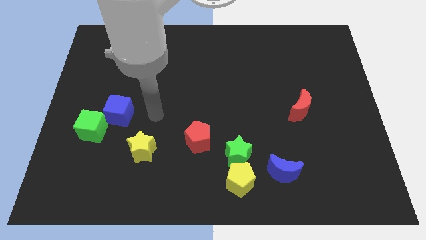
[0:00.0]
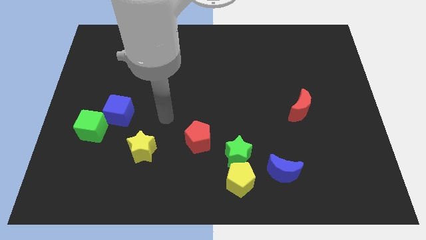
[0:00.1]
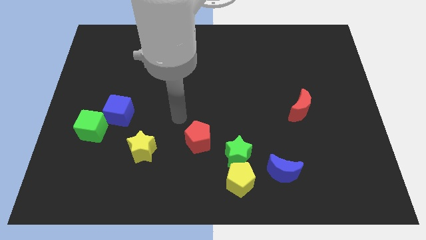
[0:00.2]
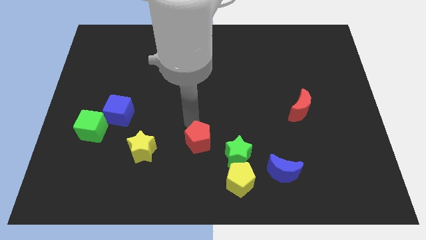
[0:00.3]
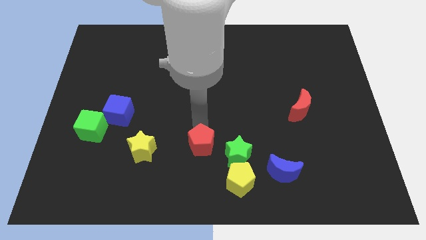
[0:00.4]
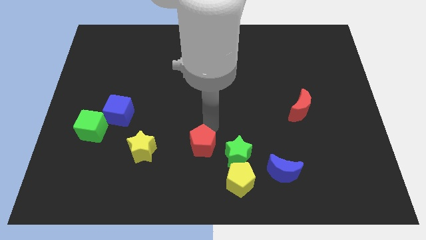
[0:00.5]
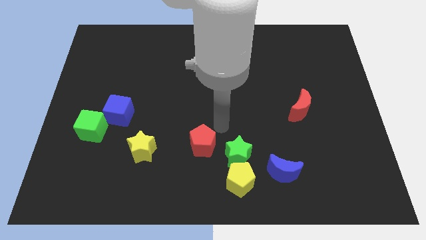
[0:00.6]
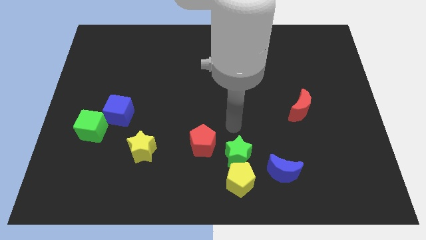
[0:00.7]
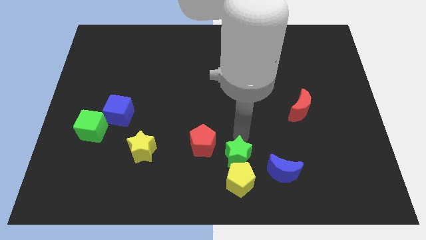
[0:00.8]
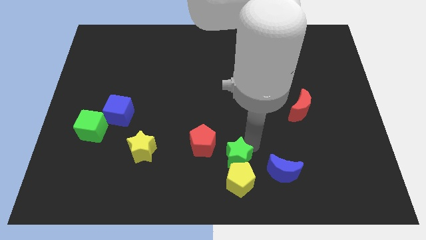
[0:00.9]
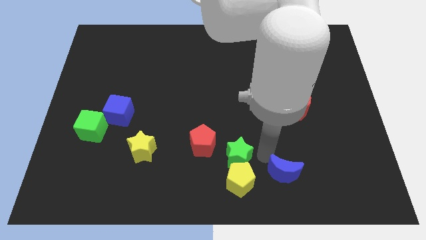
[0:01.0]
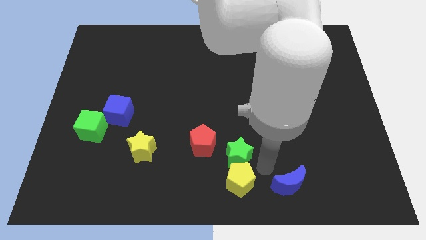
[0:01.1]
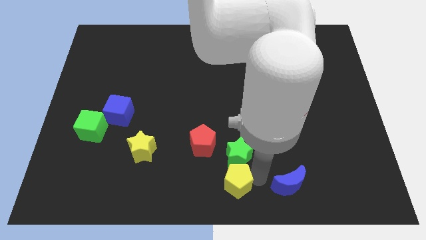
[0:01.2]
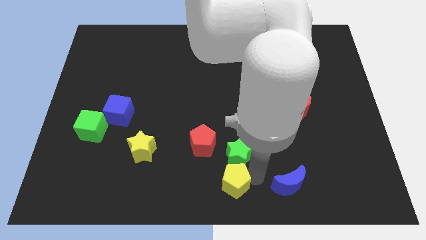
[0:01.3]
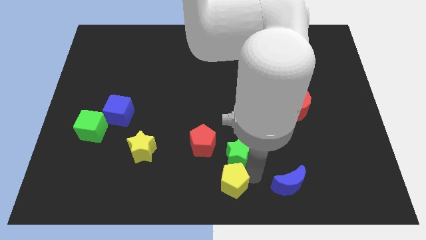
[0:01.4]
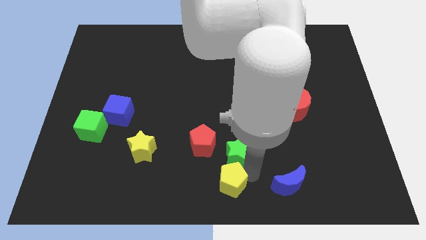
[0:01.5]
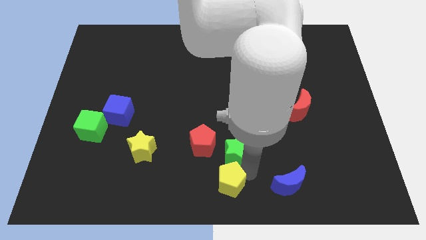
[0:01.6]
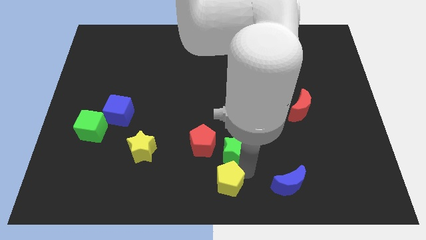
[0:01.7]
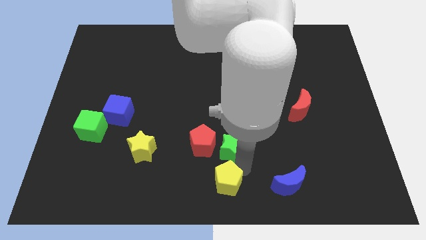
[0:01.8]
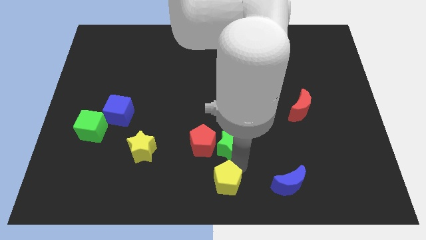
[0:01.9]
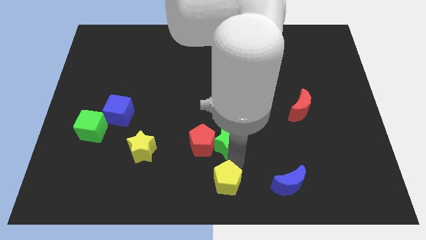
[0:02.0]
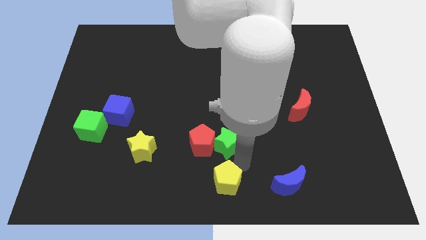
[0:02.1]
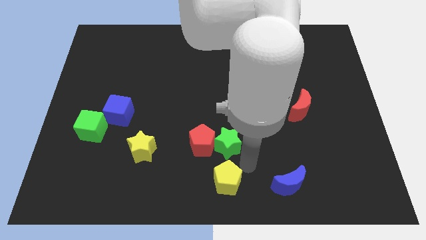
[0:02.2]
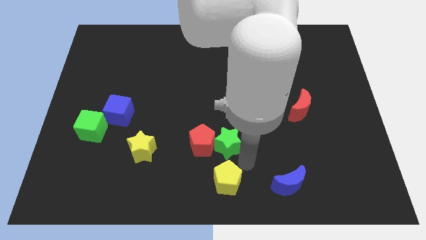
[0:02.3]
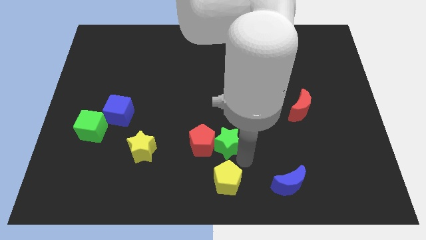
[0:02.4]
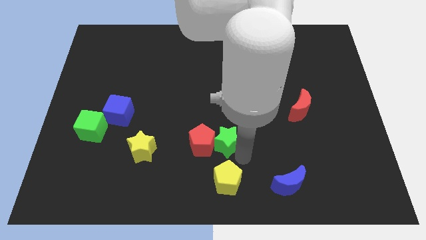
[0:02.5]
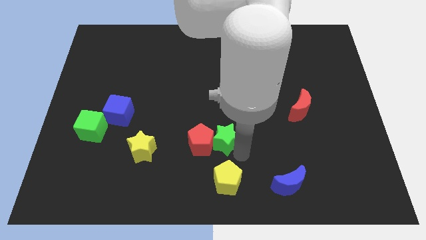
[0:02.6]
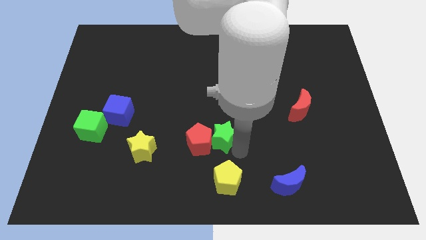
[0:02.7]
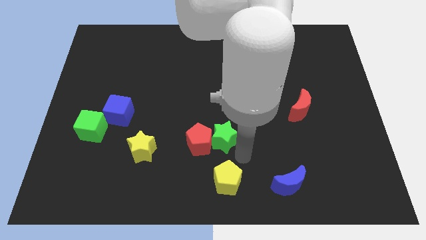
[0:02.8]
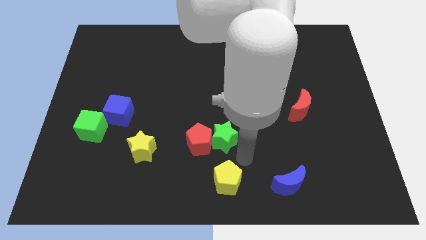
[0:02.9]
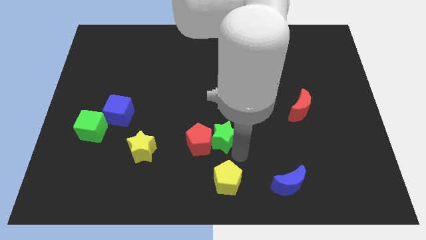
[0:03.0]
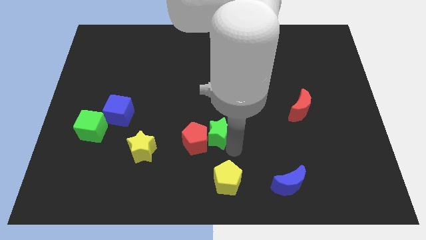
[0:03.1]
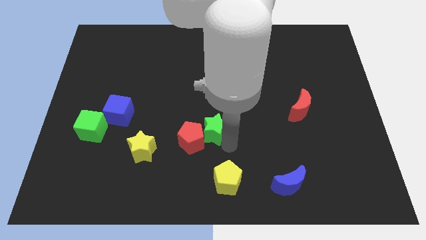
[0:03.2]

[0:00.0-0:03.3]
slide the green star a little upwards and to the left

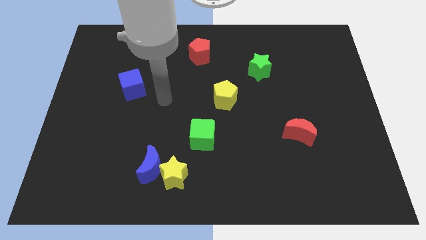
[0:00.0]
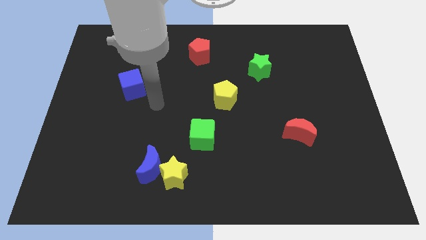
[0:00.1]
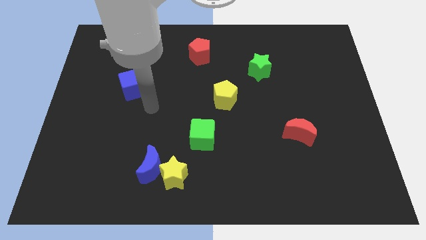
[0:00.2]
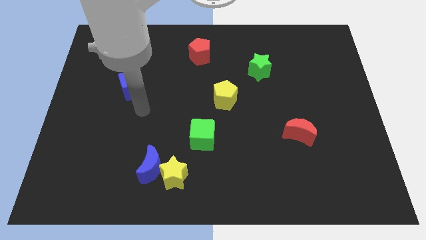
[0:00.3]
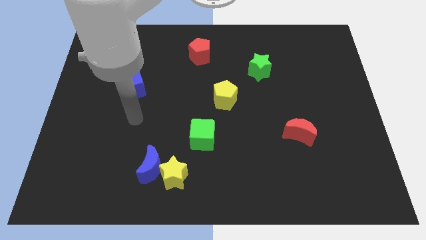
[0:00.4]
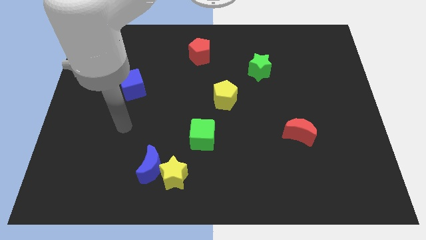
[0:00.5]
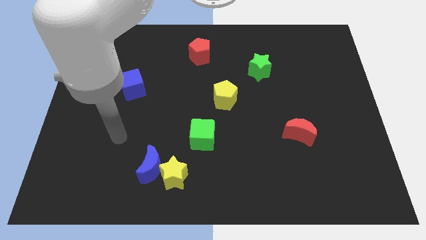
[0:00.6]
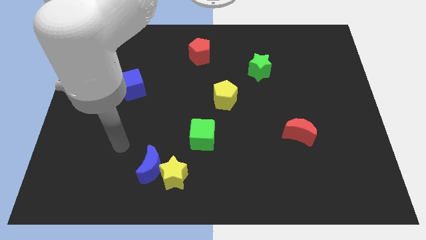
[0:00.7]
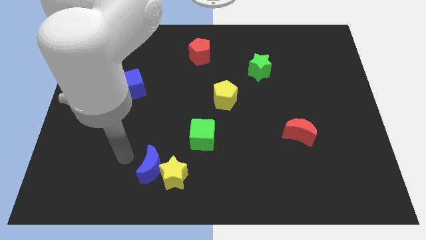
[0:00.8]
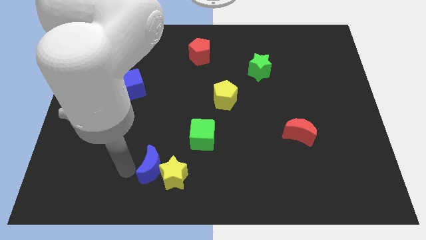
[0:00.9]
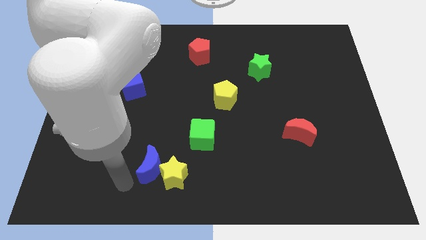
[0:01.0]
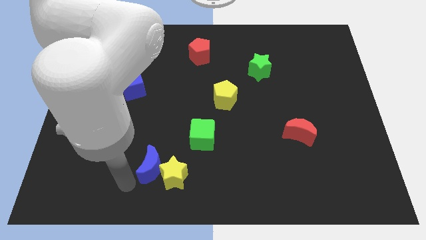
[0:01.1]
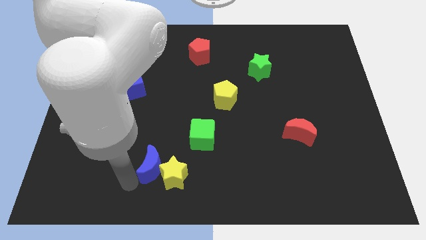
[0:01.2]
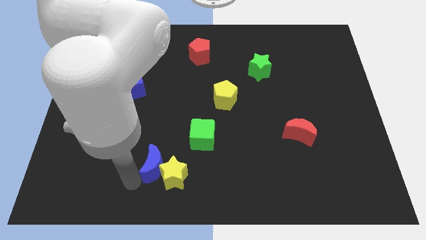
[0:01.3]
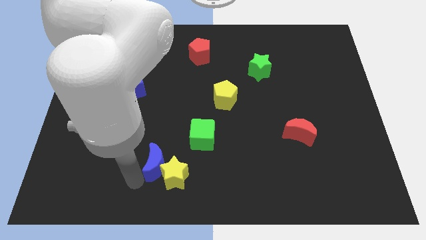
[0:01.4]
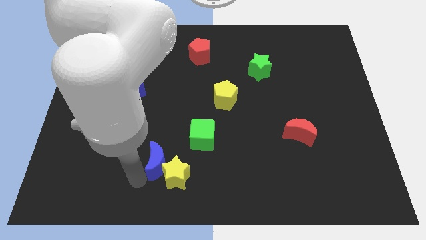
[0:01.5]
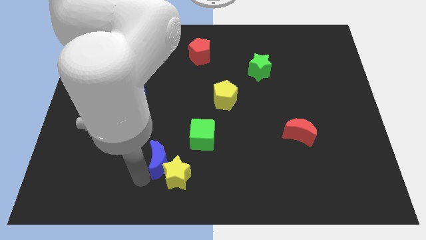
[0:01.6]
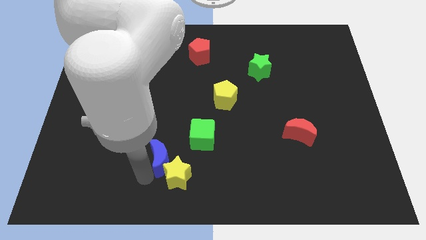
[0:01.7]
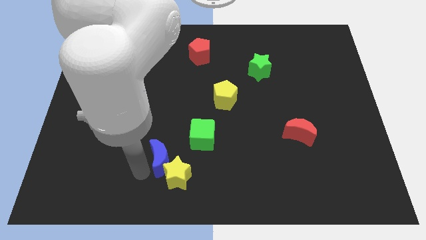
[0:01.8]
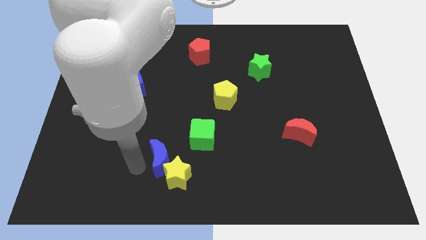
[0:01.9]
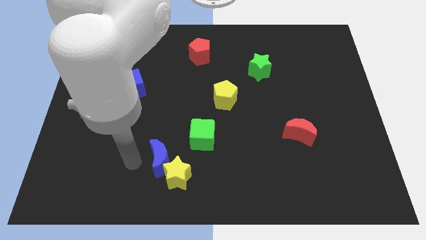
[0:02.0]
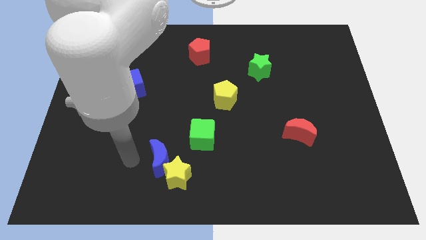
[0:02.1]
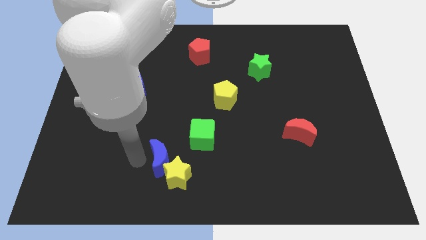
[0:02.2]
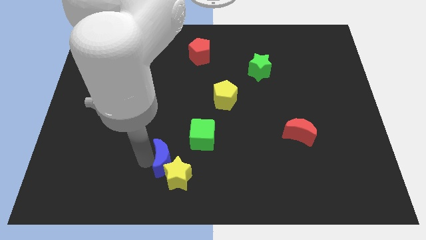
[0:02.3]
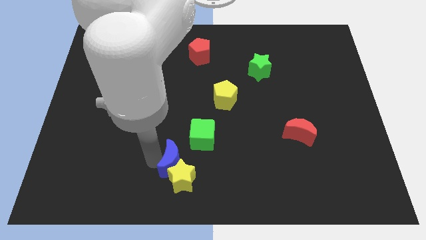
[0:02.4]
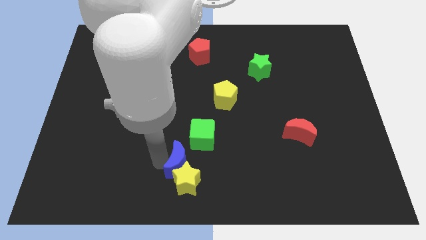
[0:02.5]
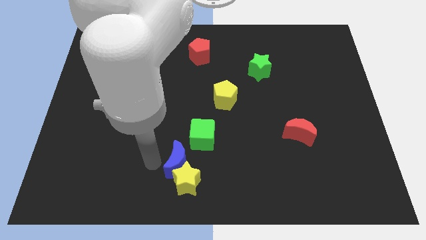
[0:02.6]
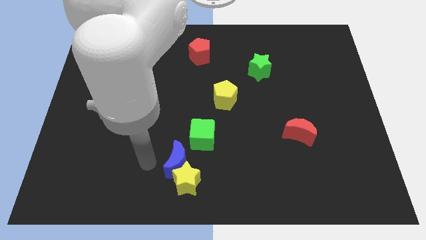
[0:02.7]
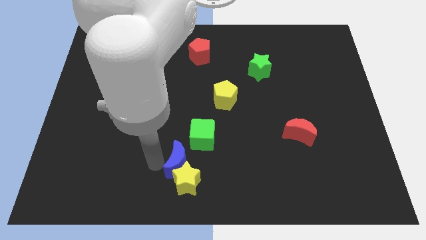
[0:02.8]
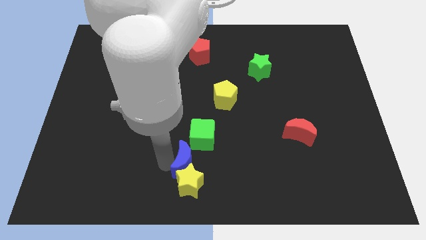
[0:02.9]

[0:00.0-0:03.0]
slightly slide the blue moon to the right

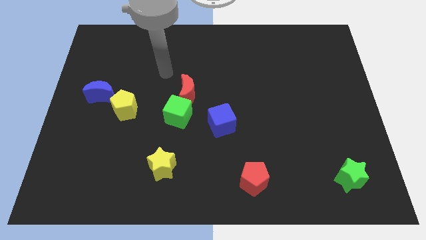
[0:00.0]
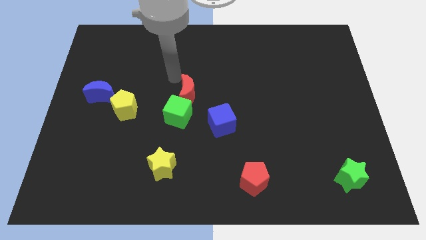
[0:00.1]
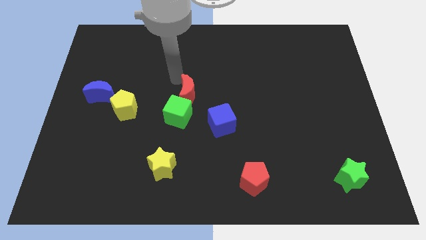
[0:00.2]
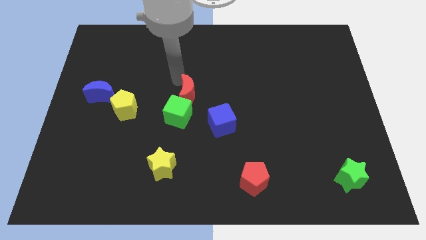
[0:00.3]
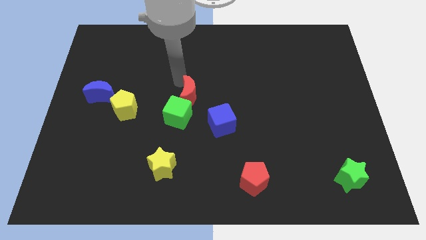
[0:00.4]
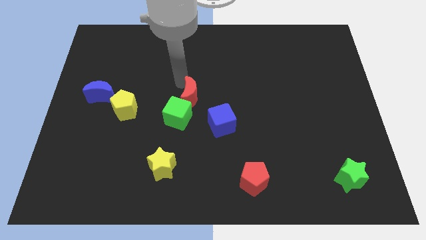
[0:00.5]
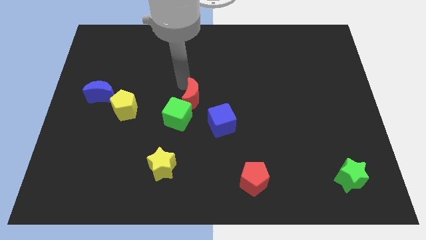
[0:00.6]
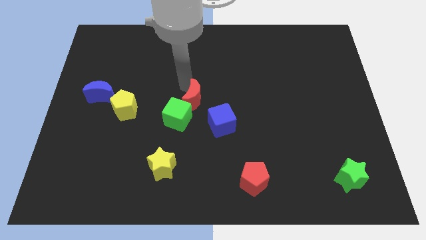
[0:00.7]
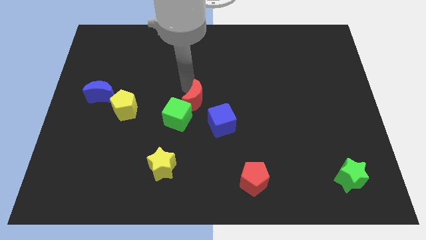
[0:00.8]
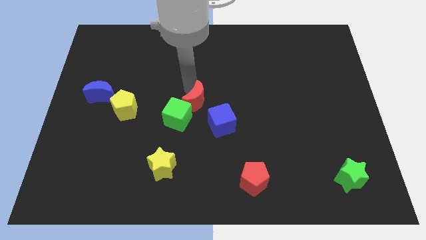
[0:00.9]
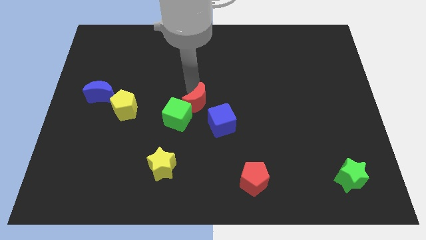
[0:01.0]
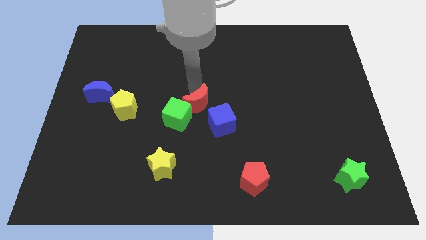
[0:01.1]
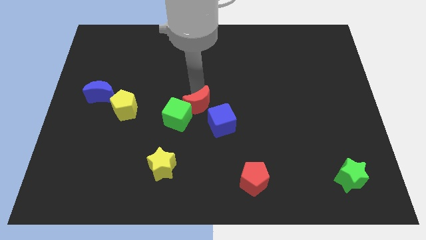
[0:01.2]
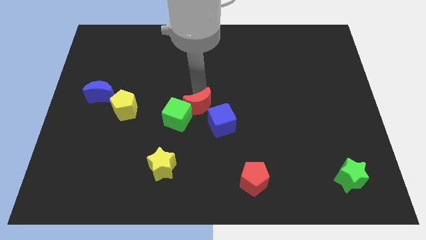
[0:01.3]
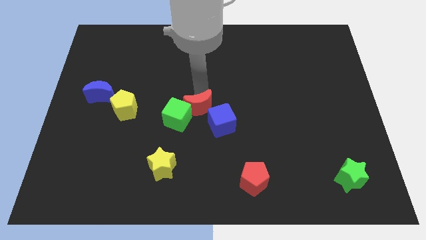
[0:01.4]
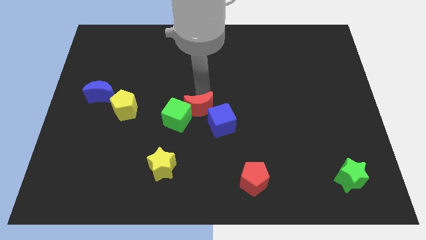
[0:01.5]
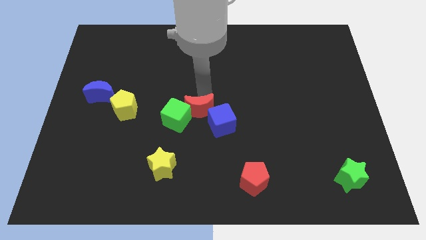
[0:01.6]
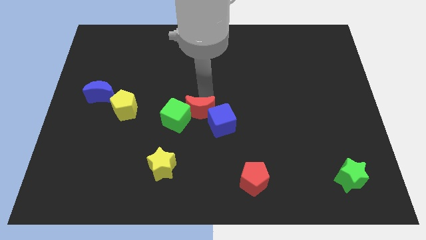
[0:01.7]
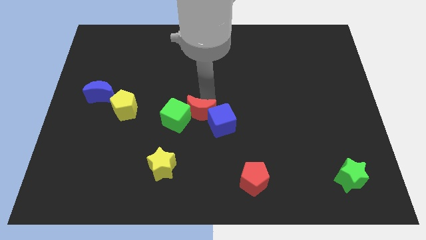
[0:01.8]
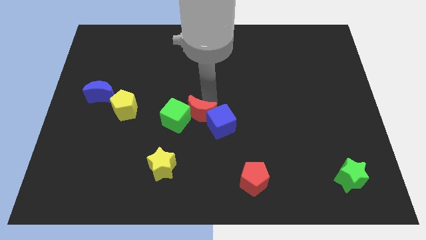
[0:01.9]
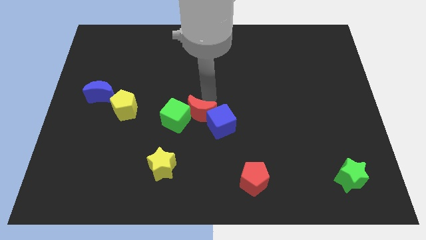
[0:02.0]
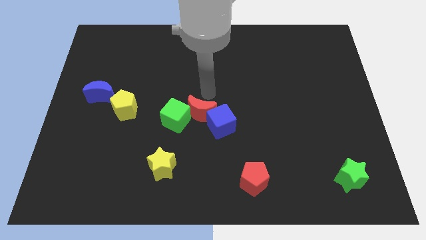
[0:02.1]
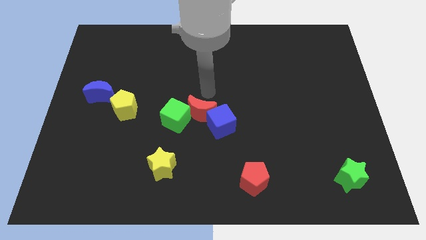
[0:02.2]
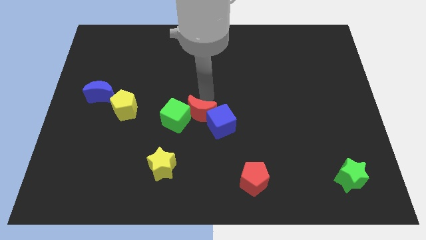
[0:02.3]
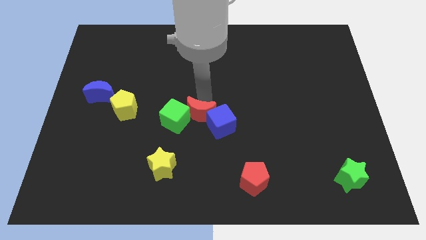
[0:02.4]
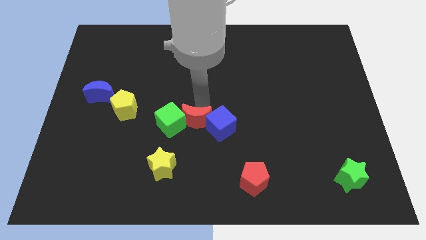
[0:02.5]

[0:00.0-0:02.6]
slide the red moon downwards a little
